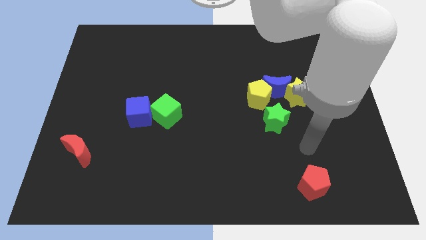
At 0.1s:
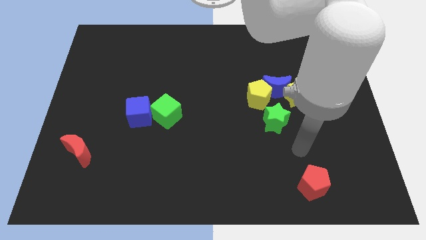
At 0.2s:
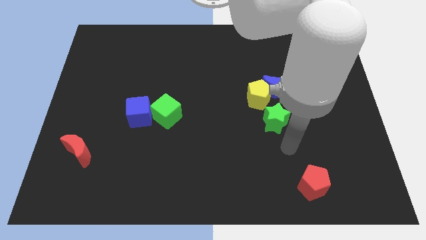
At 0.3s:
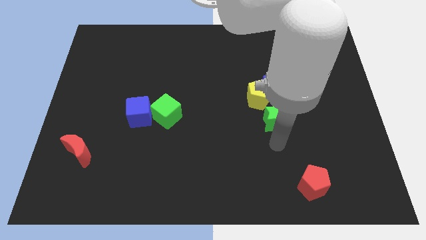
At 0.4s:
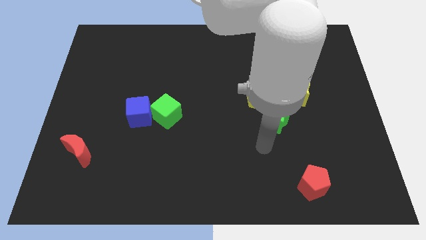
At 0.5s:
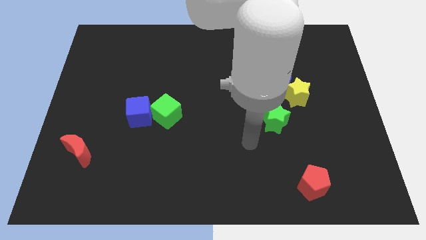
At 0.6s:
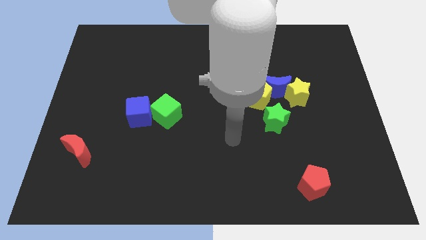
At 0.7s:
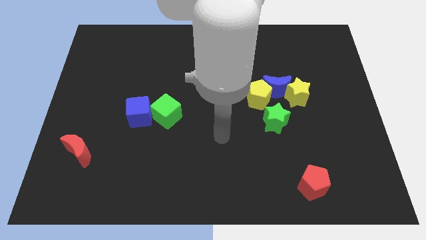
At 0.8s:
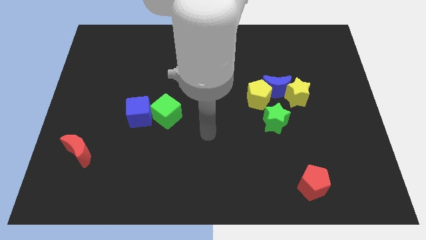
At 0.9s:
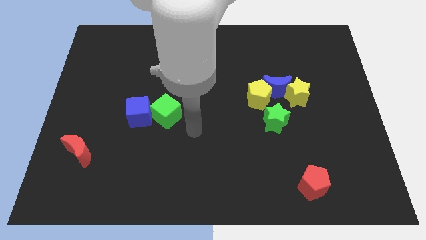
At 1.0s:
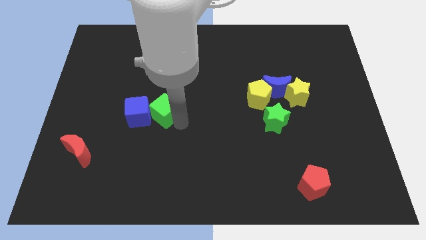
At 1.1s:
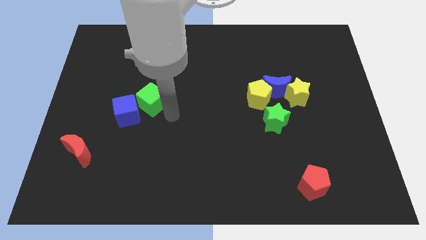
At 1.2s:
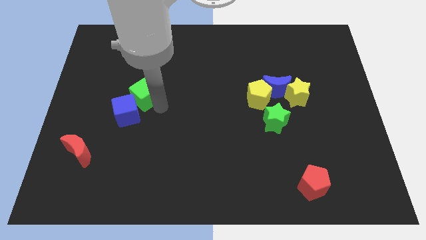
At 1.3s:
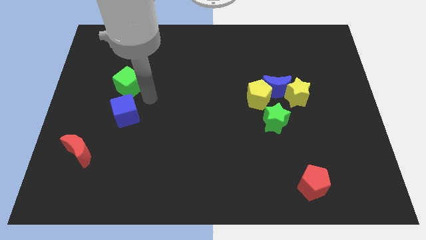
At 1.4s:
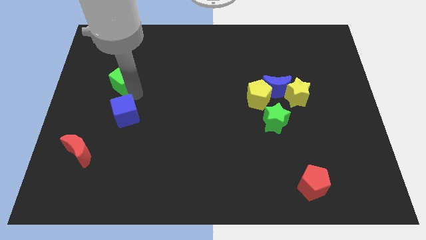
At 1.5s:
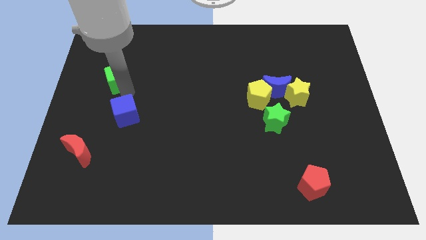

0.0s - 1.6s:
separate the blue cube from the green cube

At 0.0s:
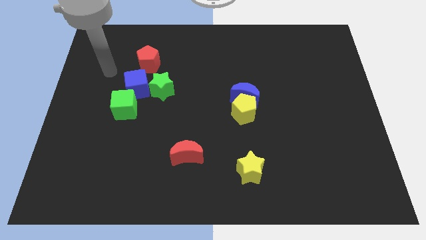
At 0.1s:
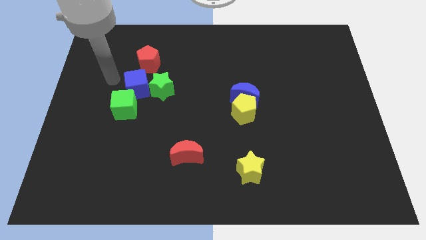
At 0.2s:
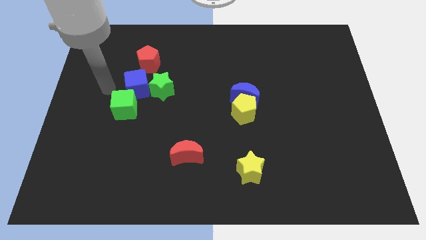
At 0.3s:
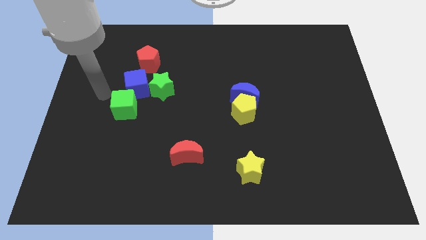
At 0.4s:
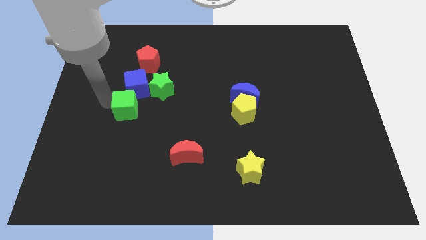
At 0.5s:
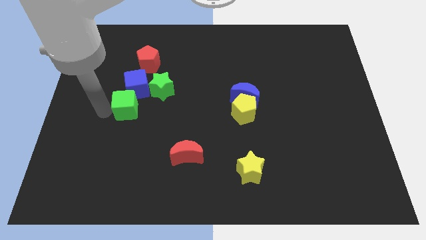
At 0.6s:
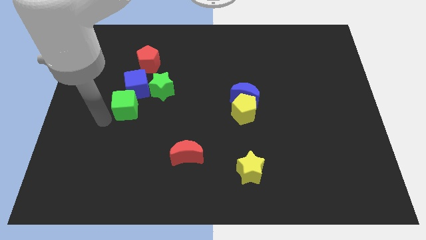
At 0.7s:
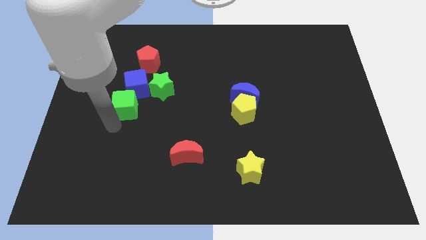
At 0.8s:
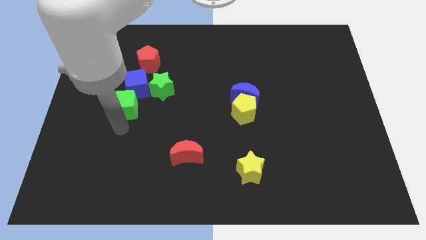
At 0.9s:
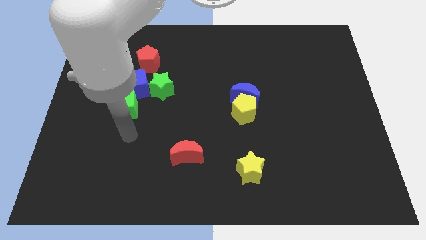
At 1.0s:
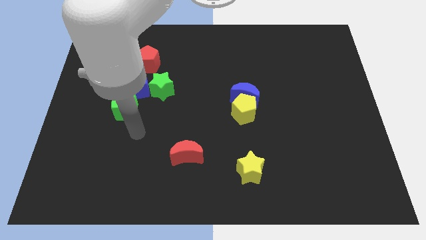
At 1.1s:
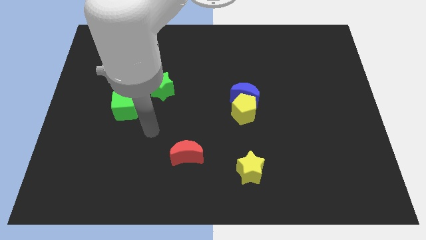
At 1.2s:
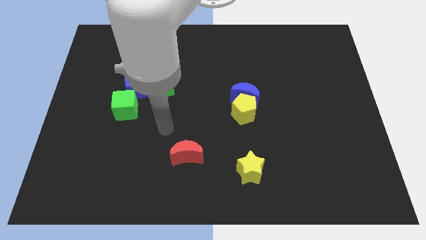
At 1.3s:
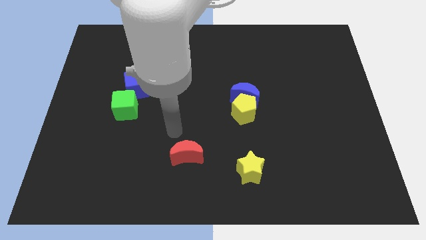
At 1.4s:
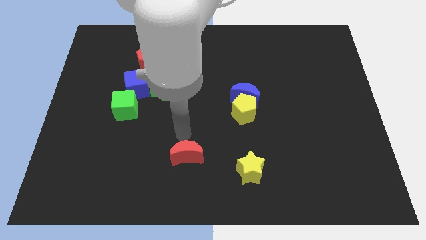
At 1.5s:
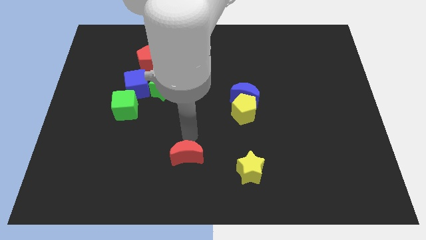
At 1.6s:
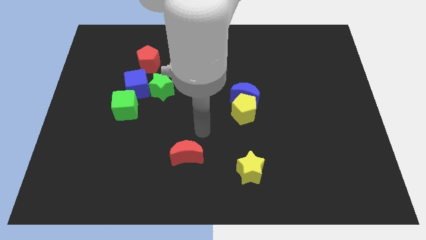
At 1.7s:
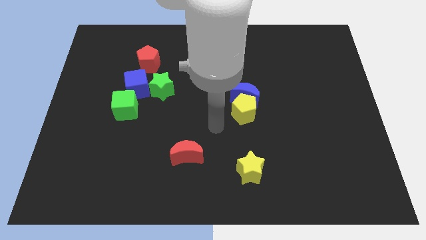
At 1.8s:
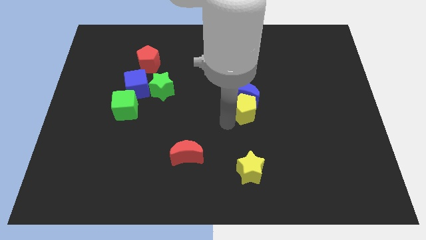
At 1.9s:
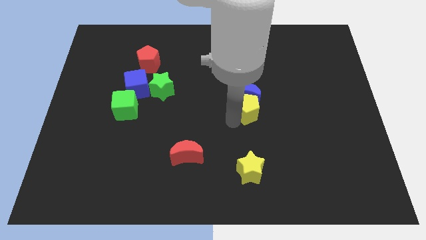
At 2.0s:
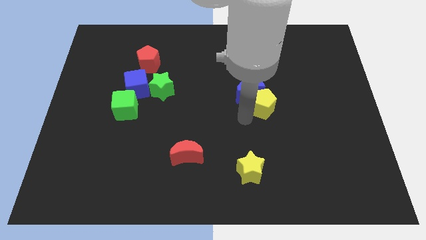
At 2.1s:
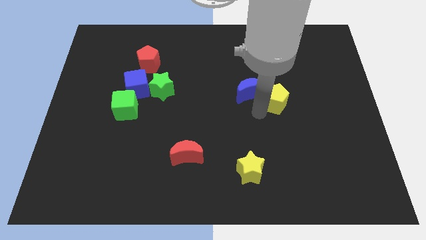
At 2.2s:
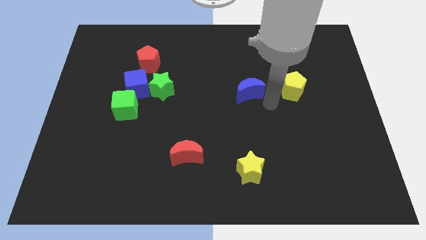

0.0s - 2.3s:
pull the blue moon apart from the yellow pentagon

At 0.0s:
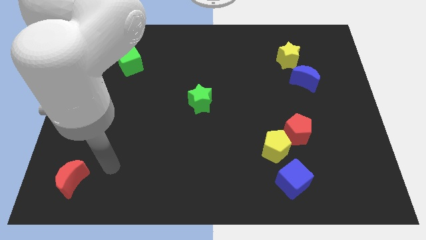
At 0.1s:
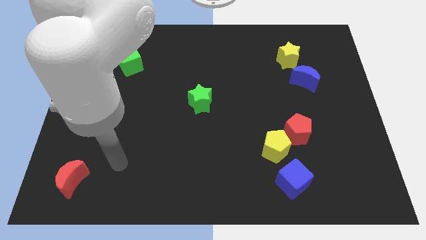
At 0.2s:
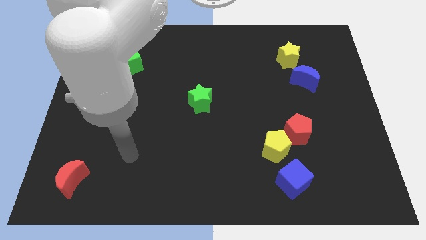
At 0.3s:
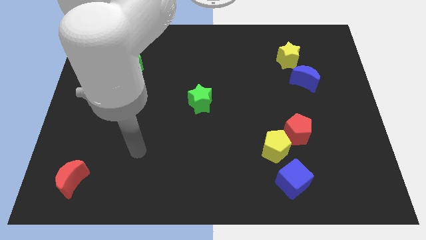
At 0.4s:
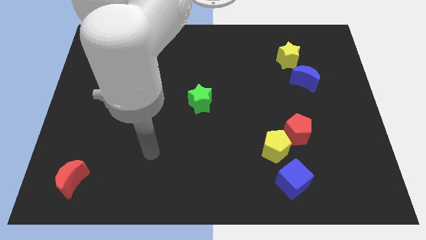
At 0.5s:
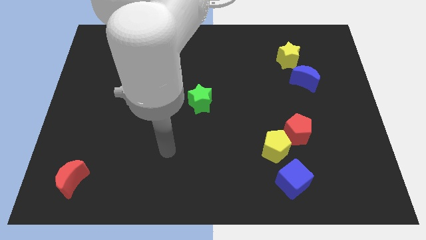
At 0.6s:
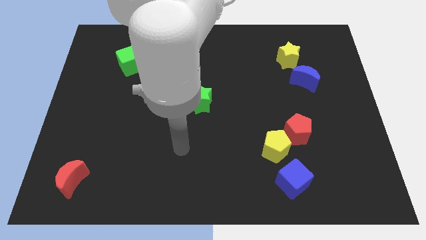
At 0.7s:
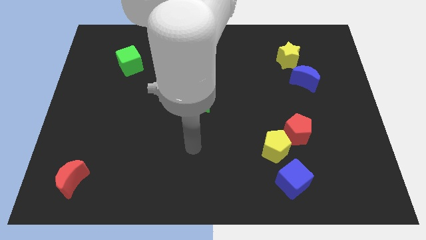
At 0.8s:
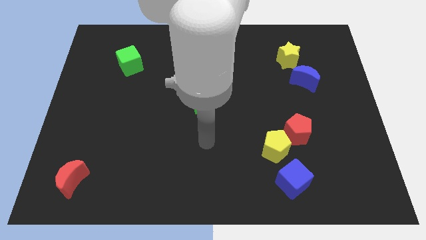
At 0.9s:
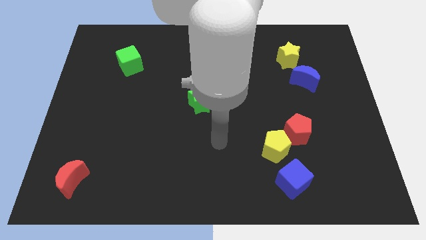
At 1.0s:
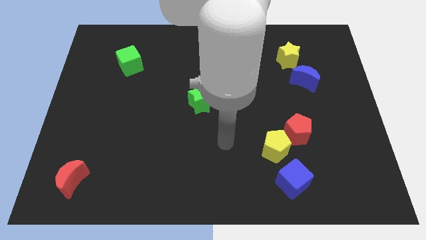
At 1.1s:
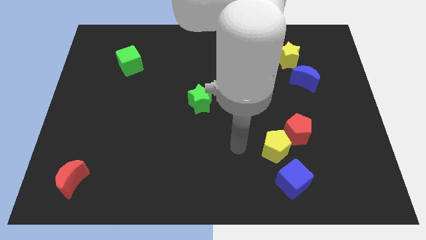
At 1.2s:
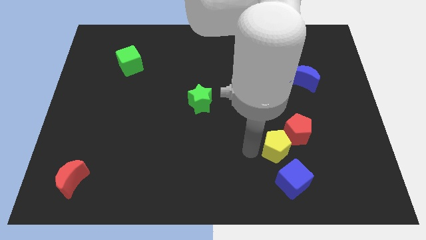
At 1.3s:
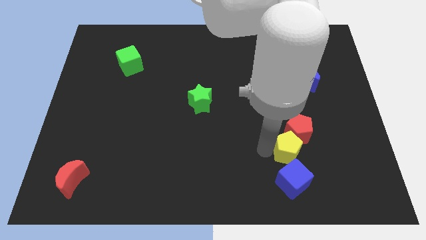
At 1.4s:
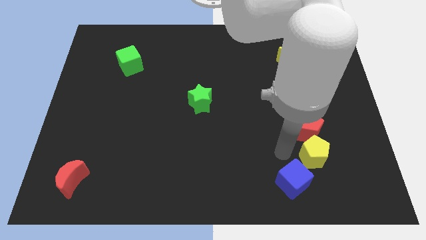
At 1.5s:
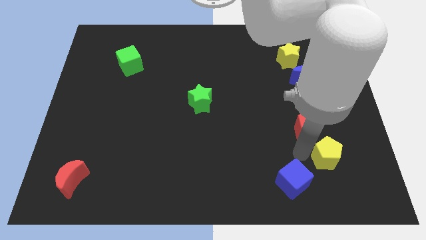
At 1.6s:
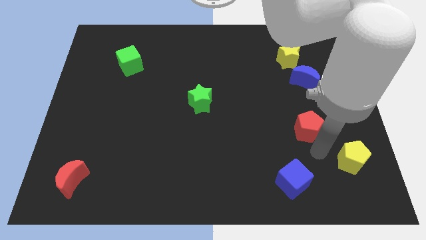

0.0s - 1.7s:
pull the red pentagon apart from the yellow pentagon

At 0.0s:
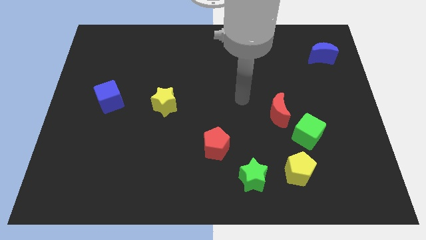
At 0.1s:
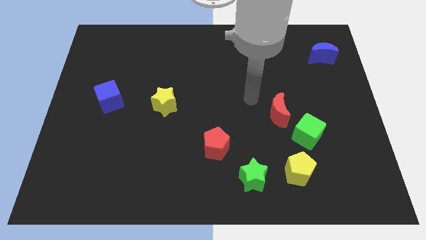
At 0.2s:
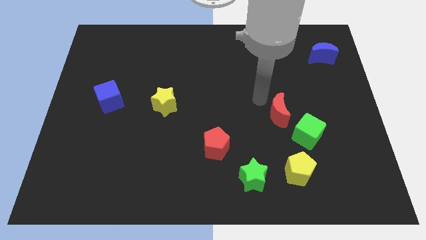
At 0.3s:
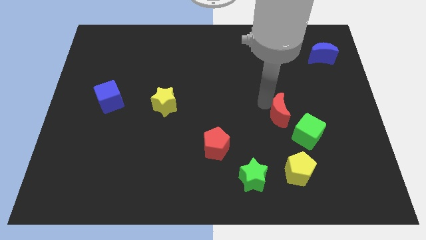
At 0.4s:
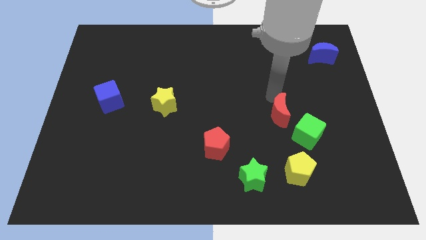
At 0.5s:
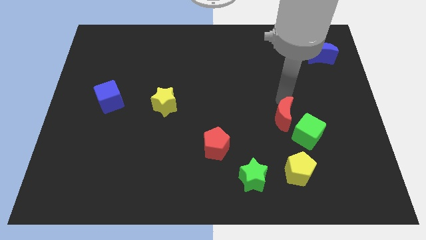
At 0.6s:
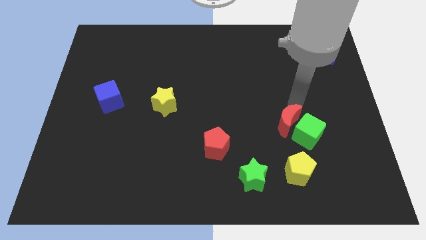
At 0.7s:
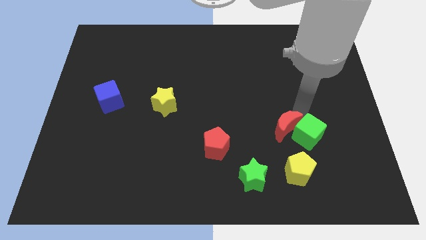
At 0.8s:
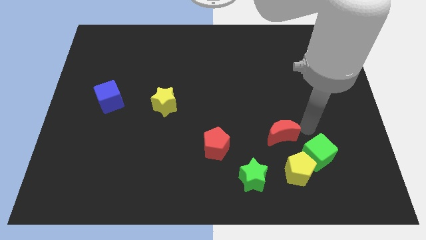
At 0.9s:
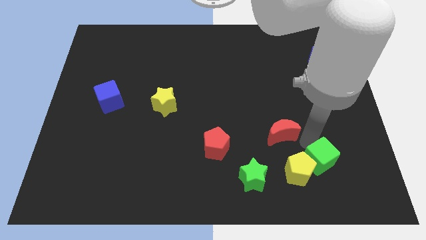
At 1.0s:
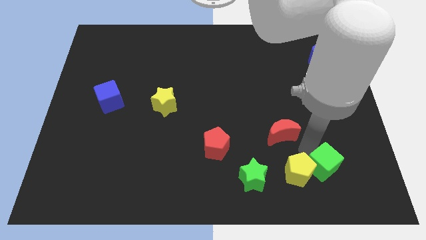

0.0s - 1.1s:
separate the red moon from the green cube

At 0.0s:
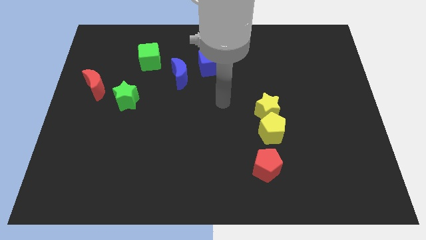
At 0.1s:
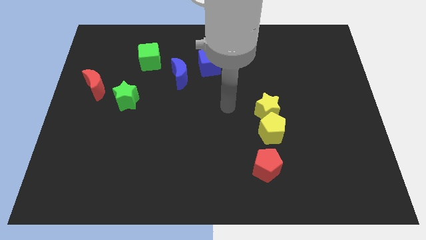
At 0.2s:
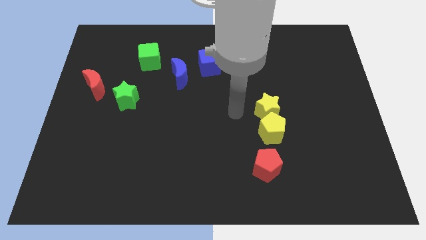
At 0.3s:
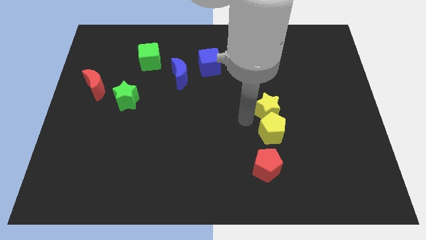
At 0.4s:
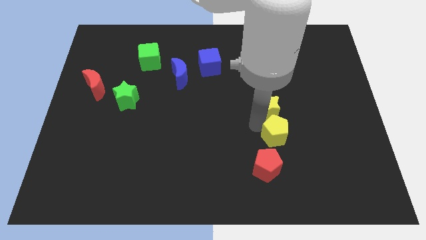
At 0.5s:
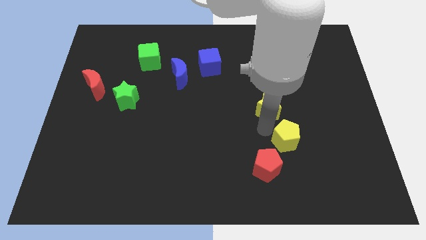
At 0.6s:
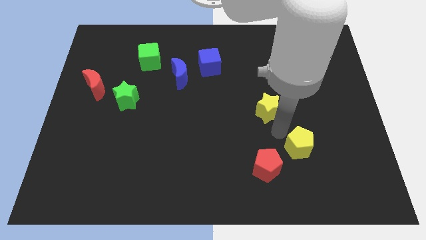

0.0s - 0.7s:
separate the yellow star from the yellow pentagon

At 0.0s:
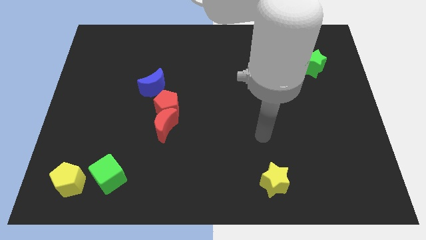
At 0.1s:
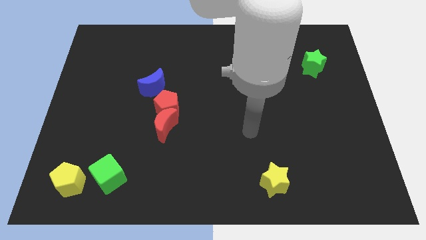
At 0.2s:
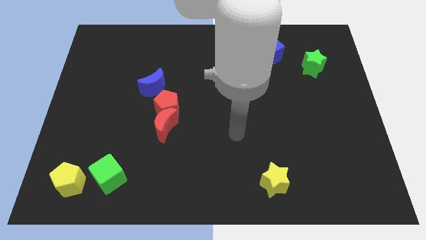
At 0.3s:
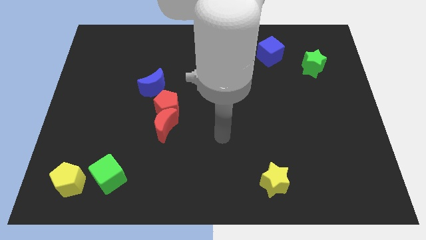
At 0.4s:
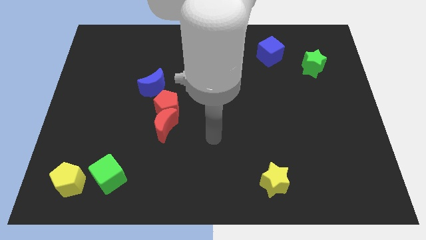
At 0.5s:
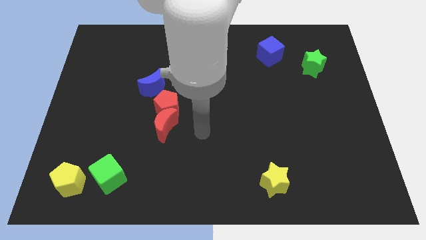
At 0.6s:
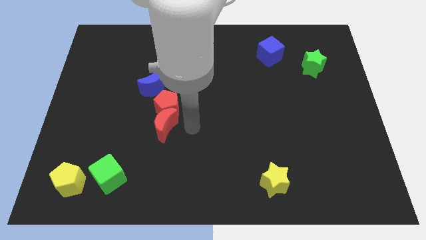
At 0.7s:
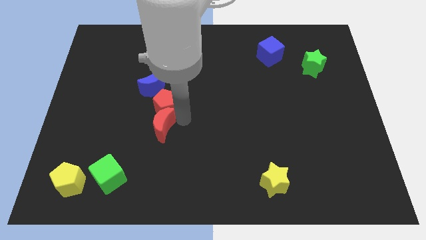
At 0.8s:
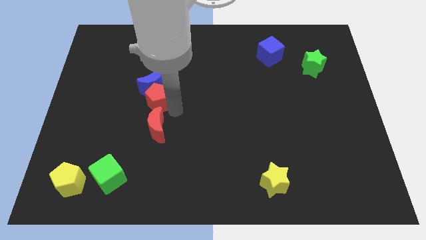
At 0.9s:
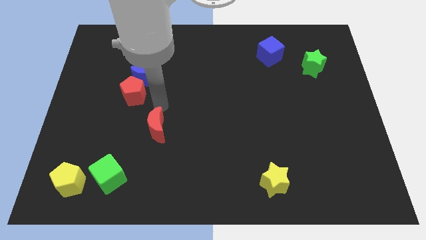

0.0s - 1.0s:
move the red moon away from the red pentagon

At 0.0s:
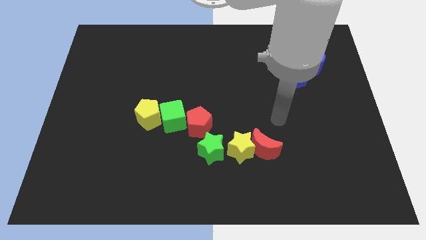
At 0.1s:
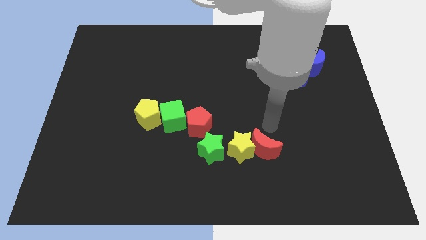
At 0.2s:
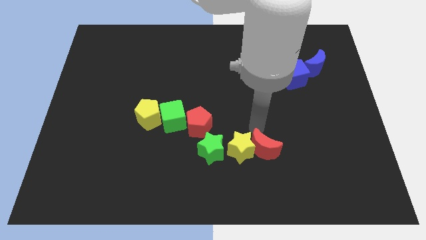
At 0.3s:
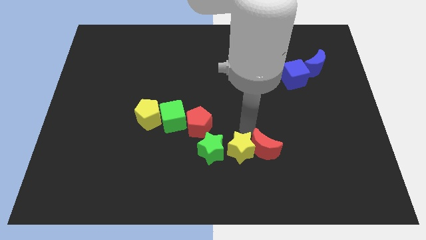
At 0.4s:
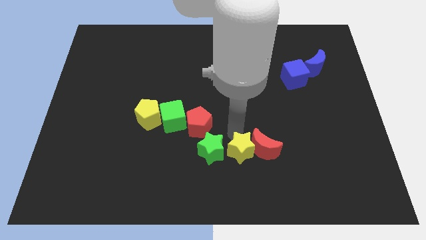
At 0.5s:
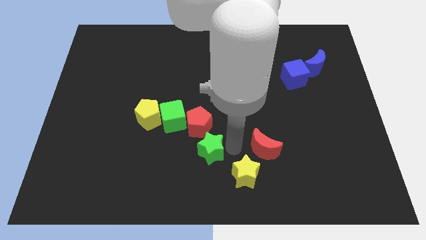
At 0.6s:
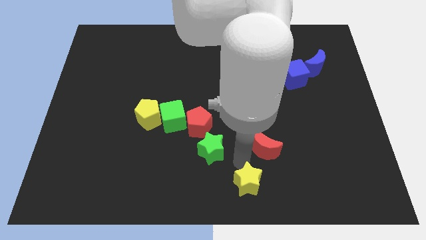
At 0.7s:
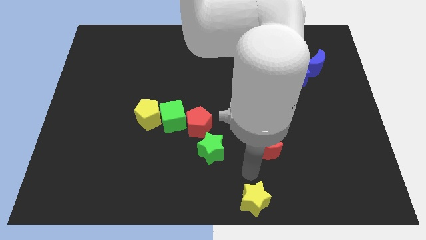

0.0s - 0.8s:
pull the red moon apart from the yellow star

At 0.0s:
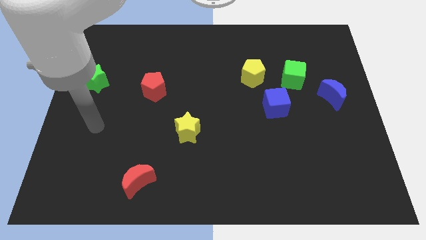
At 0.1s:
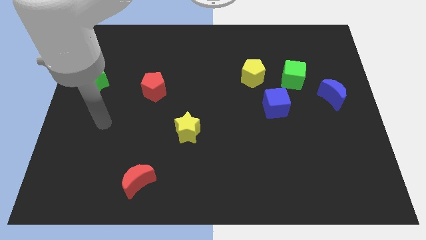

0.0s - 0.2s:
move the green cube away from the yellow pentagon
